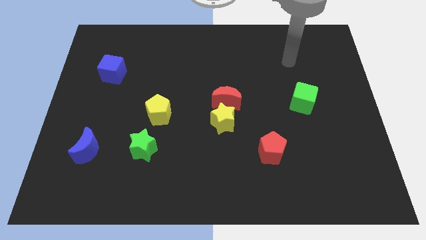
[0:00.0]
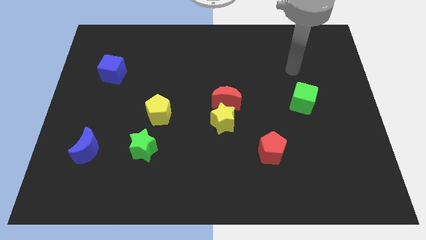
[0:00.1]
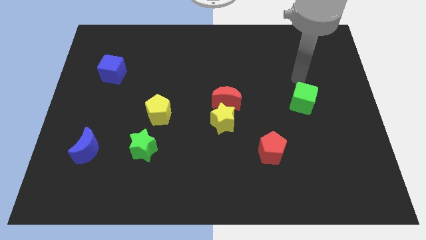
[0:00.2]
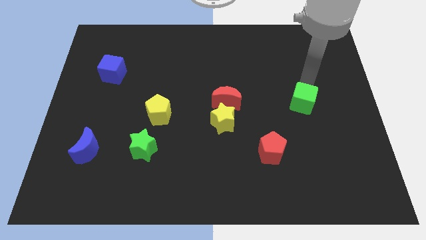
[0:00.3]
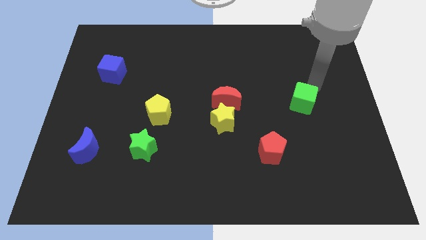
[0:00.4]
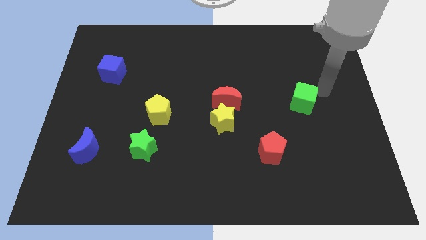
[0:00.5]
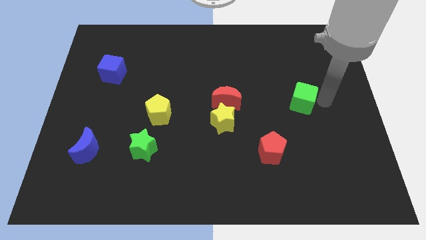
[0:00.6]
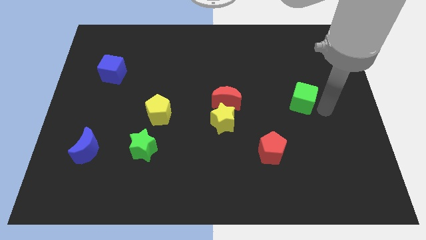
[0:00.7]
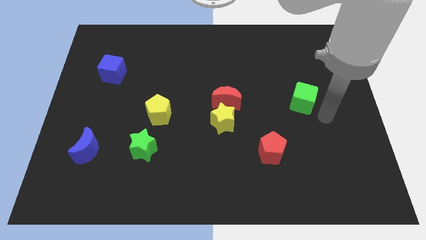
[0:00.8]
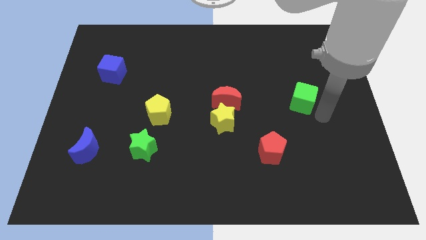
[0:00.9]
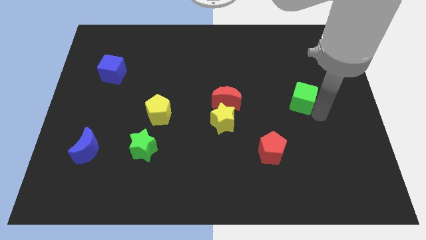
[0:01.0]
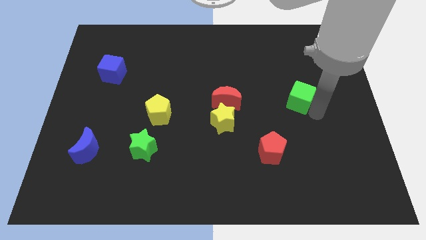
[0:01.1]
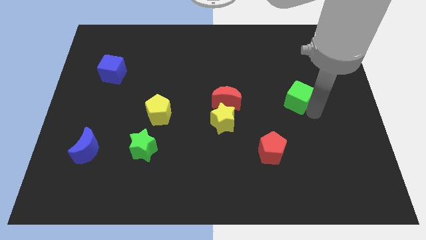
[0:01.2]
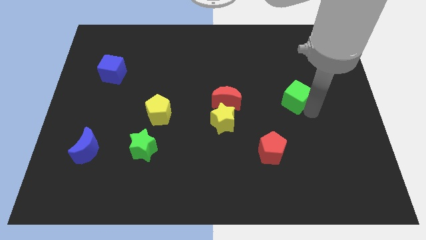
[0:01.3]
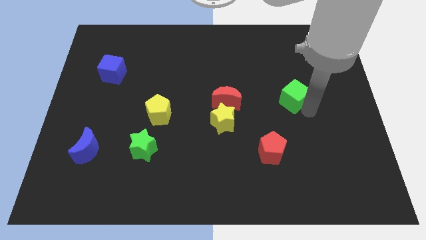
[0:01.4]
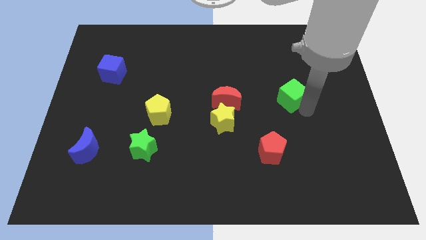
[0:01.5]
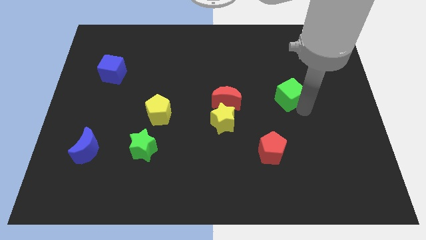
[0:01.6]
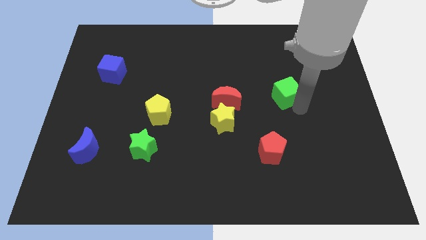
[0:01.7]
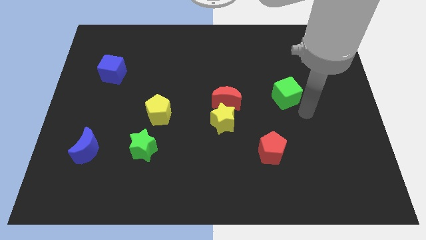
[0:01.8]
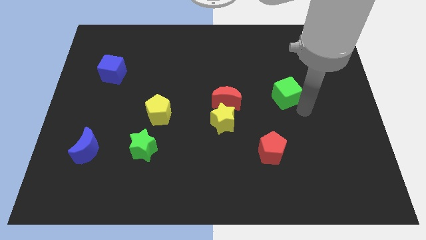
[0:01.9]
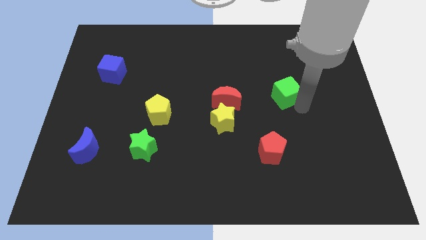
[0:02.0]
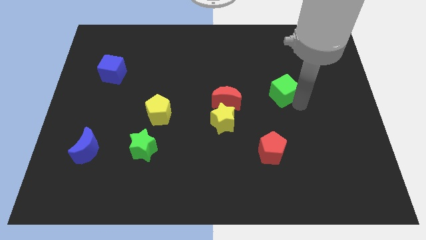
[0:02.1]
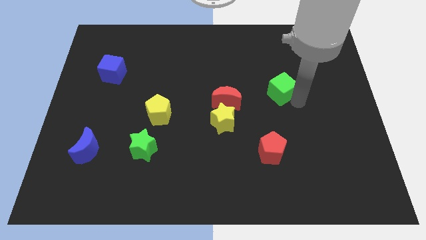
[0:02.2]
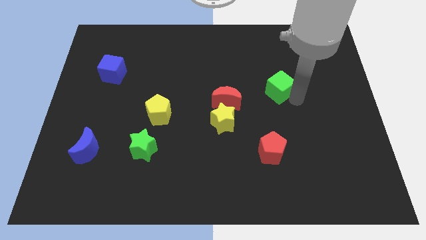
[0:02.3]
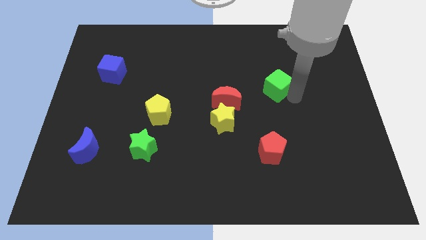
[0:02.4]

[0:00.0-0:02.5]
slide the green cube a bit upwards and then to the left

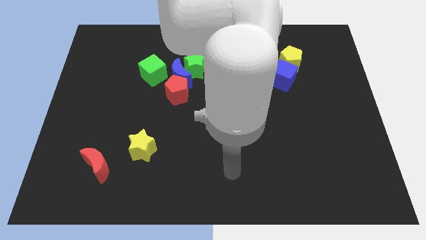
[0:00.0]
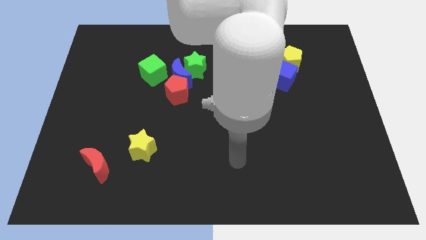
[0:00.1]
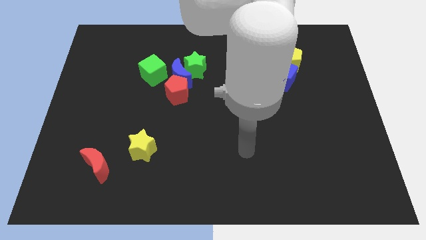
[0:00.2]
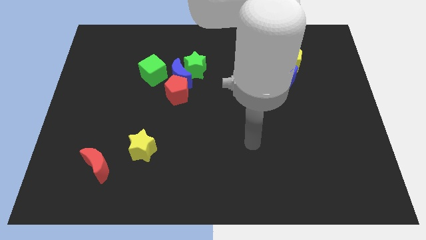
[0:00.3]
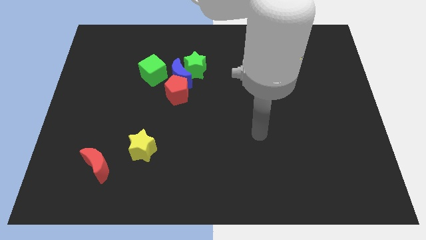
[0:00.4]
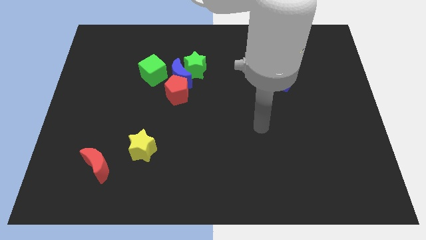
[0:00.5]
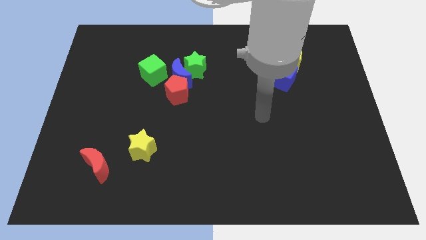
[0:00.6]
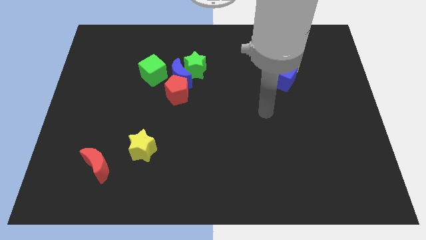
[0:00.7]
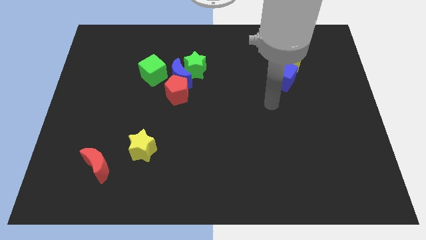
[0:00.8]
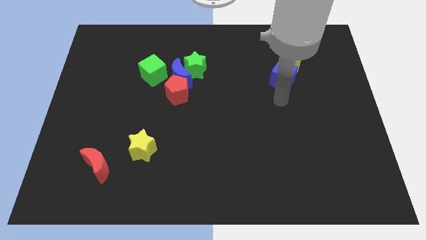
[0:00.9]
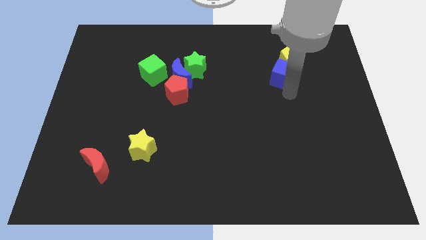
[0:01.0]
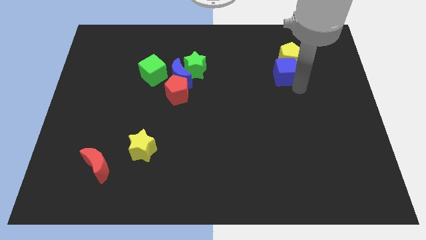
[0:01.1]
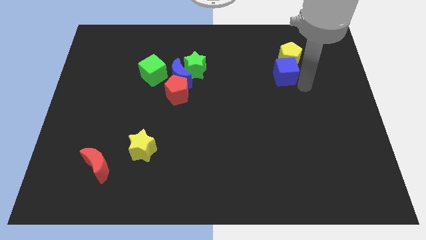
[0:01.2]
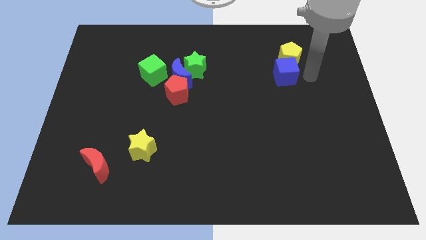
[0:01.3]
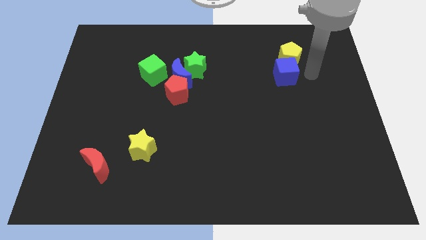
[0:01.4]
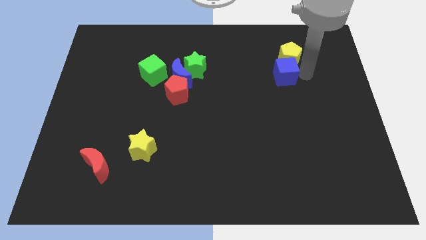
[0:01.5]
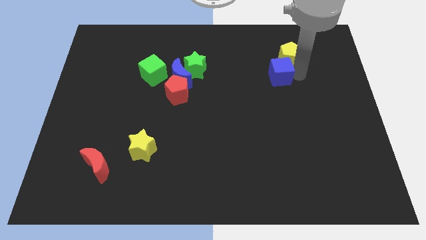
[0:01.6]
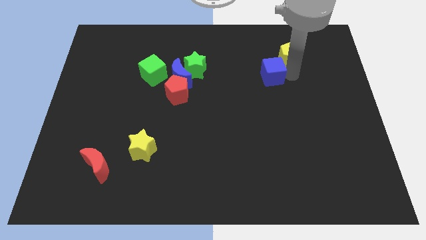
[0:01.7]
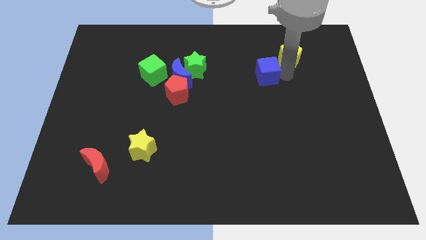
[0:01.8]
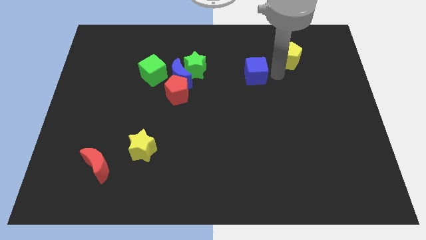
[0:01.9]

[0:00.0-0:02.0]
slightly push the blue cube to the left

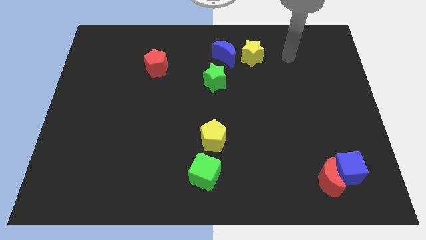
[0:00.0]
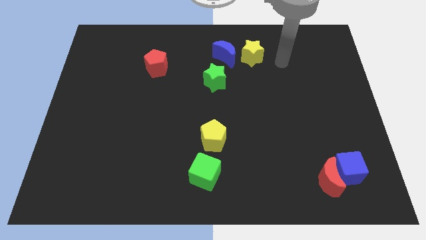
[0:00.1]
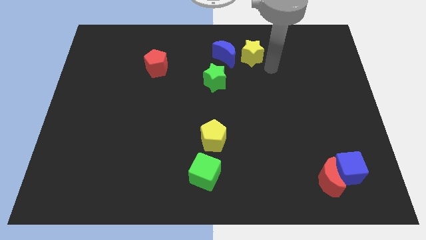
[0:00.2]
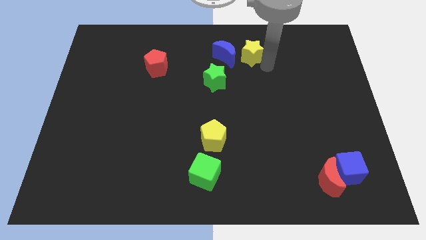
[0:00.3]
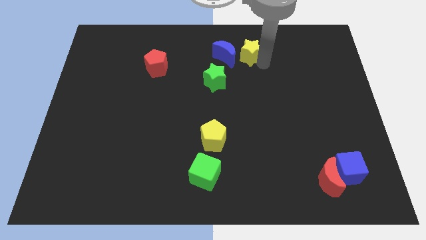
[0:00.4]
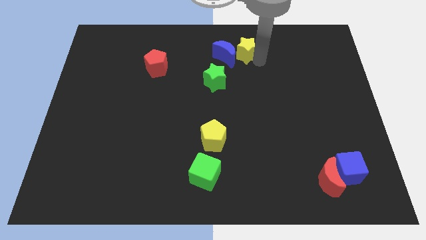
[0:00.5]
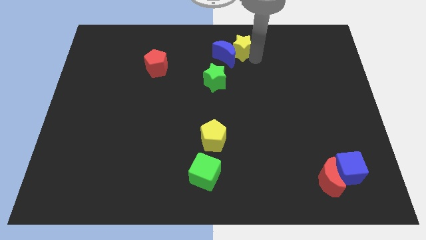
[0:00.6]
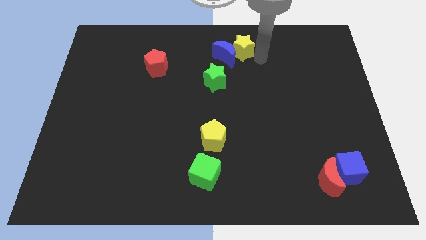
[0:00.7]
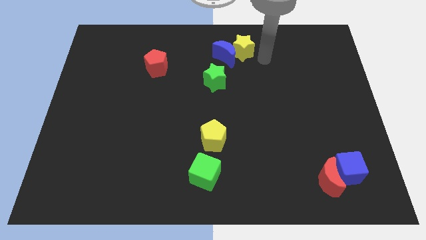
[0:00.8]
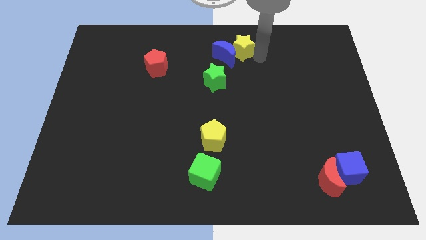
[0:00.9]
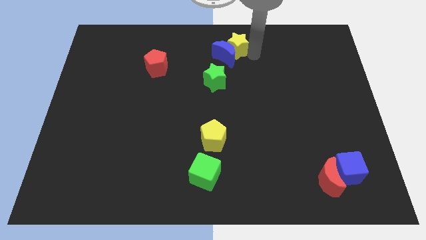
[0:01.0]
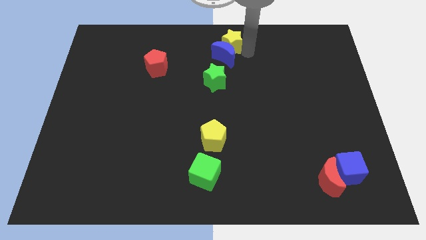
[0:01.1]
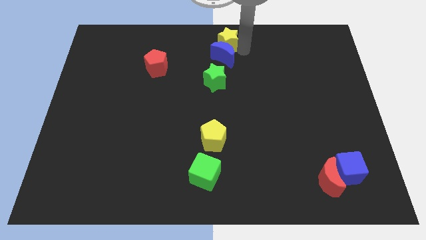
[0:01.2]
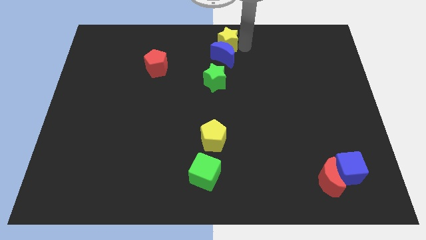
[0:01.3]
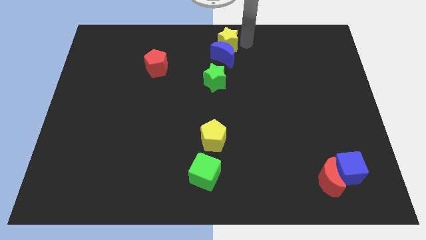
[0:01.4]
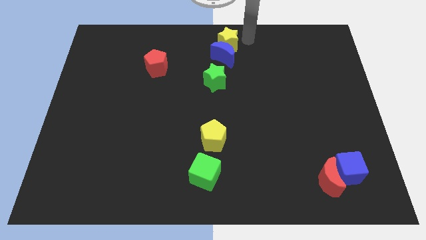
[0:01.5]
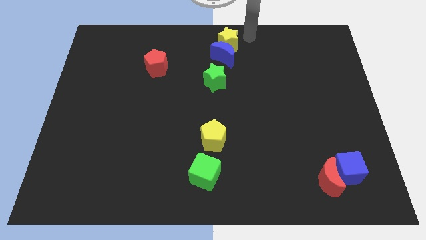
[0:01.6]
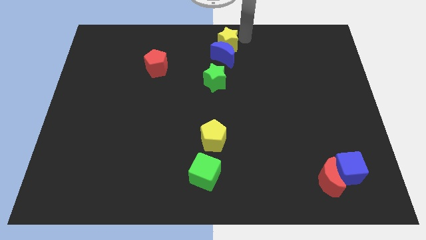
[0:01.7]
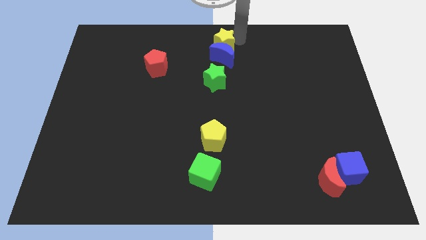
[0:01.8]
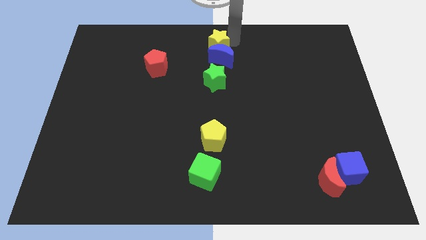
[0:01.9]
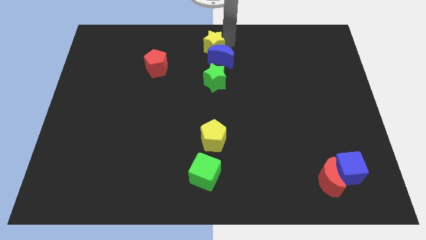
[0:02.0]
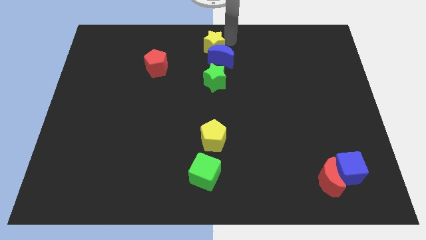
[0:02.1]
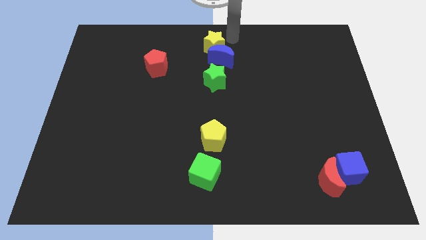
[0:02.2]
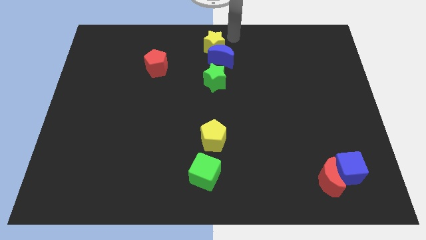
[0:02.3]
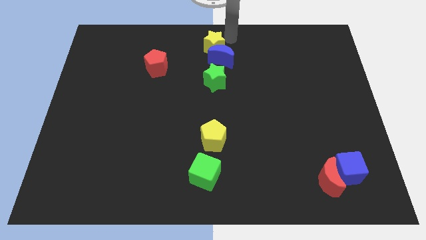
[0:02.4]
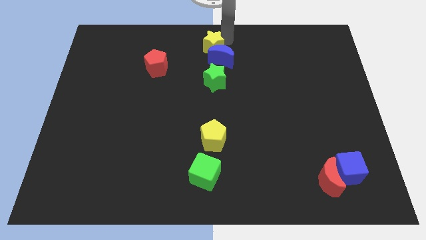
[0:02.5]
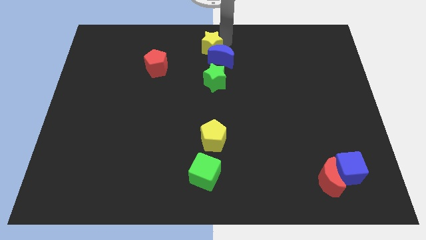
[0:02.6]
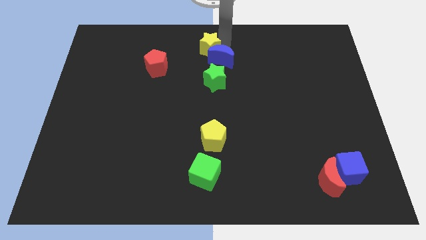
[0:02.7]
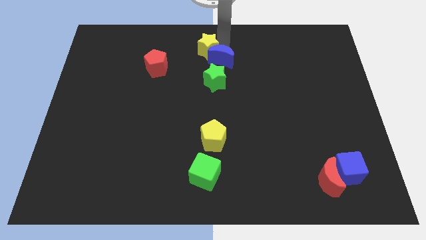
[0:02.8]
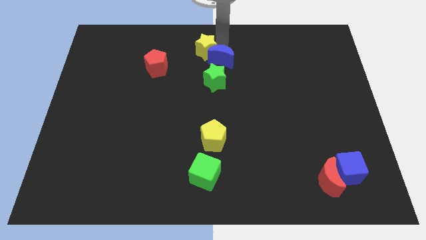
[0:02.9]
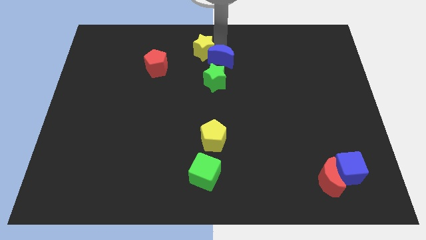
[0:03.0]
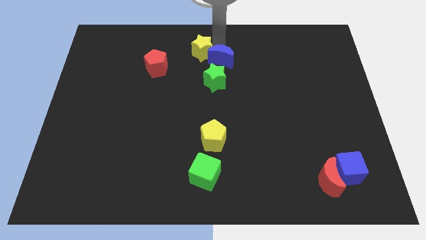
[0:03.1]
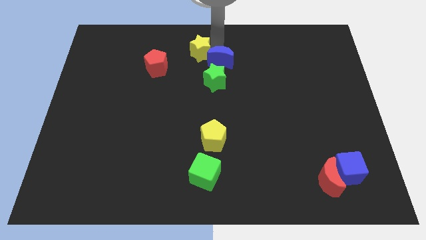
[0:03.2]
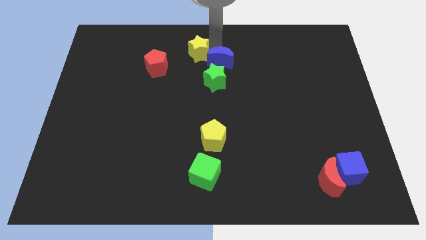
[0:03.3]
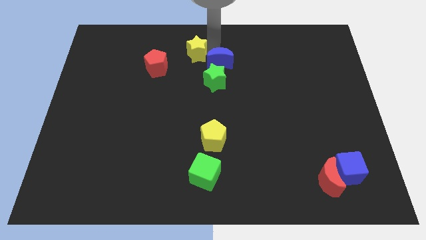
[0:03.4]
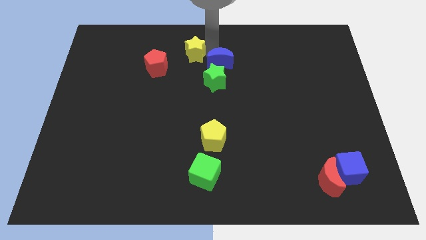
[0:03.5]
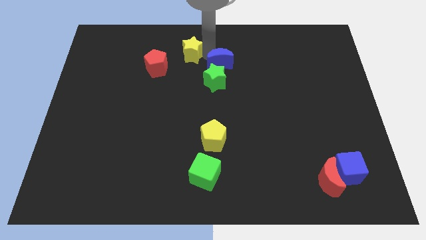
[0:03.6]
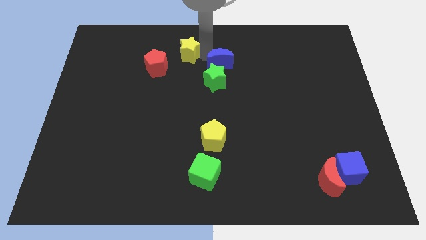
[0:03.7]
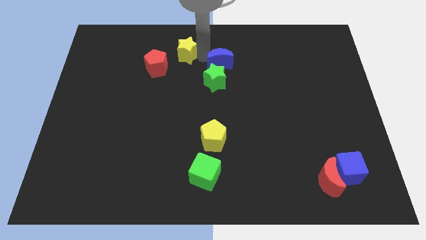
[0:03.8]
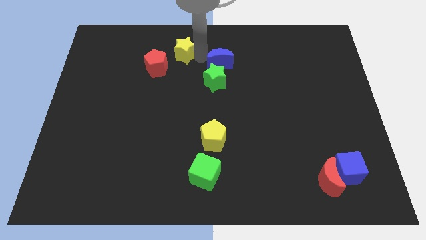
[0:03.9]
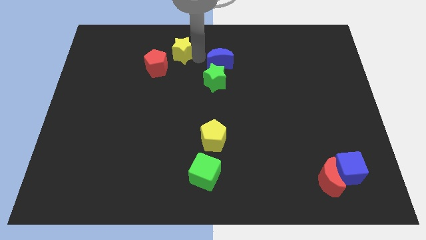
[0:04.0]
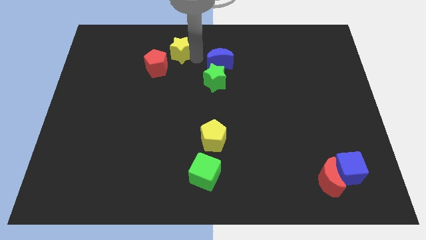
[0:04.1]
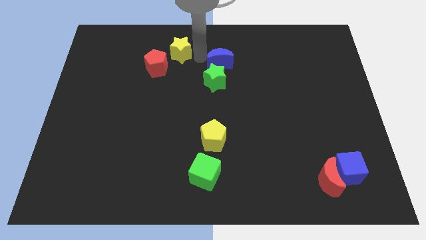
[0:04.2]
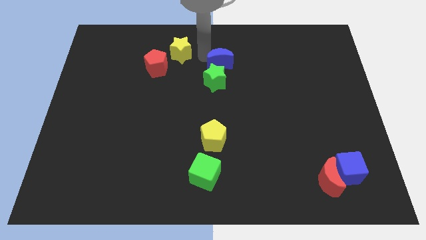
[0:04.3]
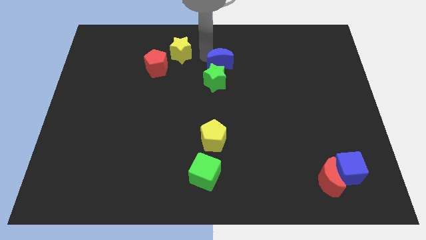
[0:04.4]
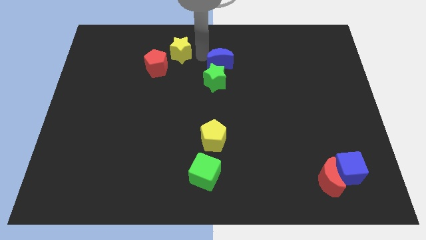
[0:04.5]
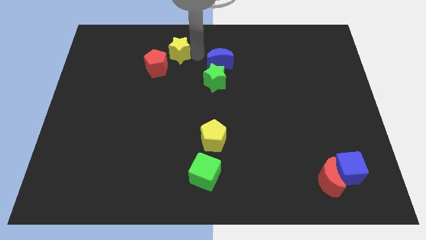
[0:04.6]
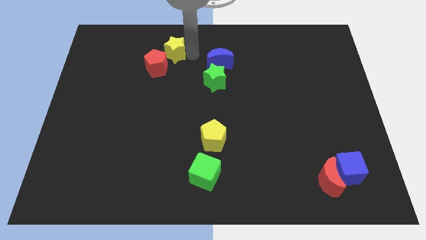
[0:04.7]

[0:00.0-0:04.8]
slide the yellow star to the left
